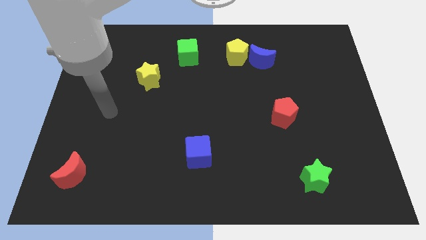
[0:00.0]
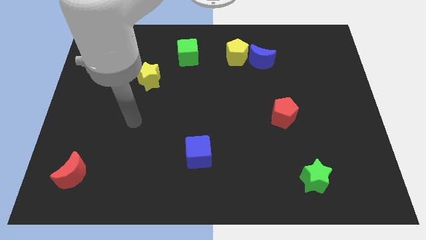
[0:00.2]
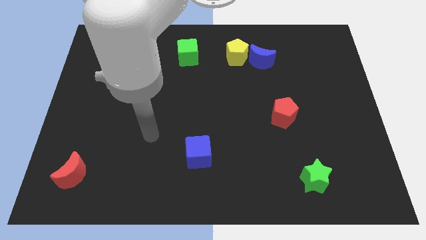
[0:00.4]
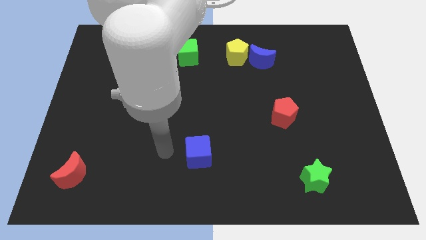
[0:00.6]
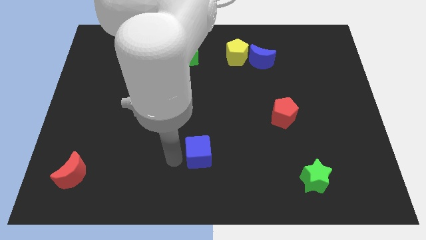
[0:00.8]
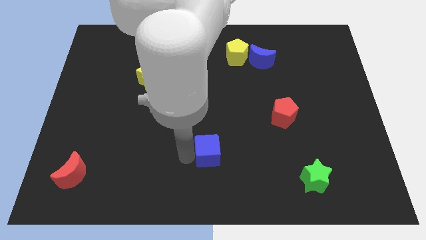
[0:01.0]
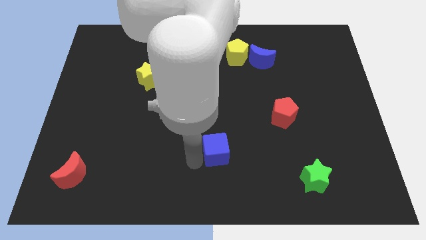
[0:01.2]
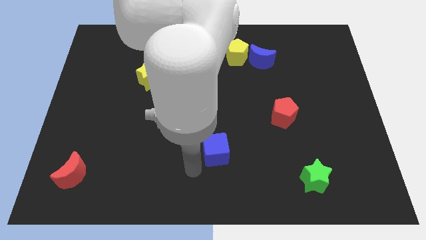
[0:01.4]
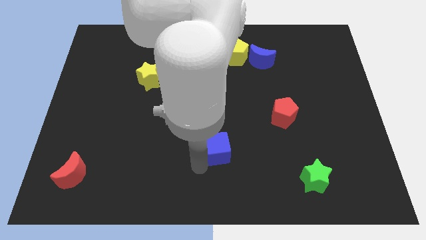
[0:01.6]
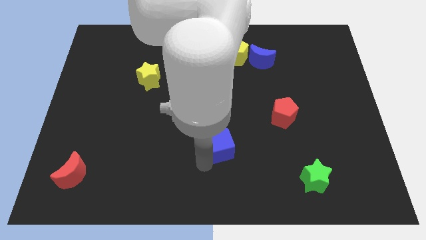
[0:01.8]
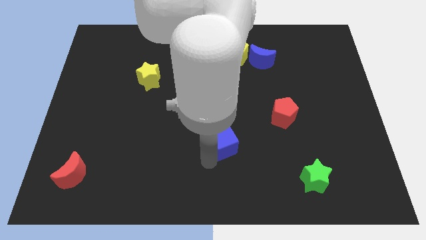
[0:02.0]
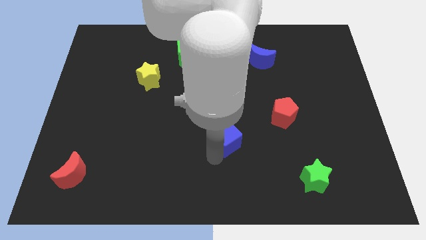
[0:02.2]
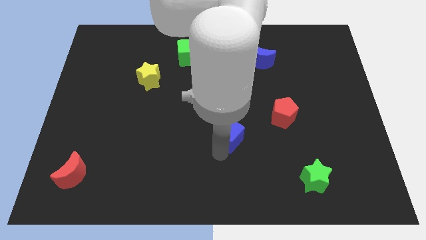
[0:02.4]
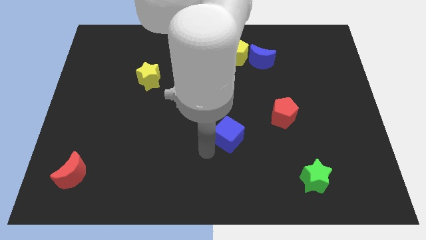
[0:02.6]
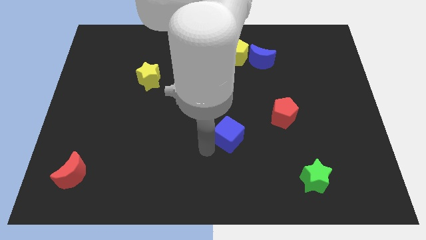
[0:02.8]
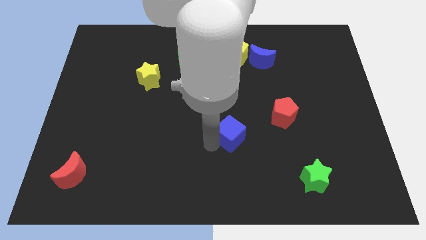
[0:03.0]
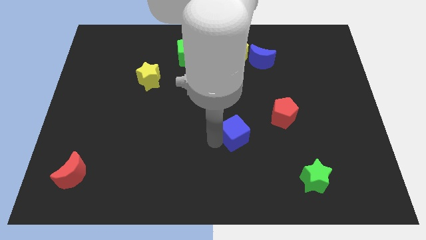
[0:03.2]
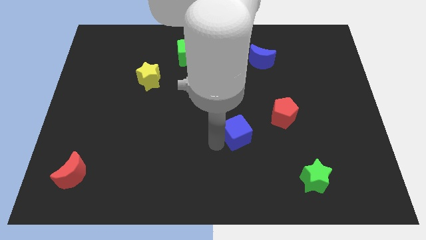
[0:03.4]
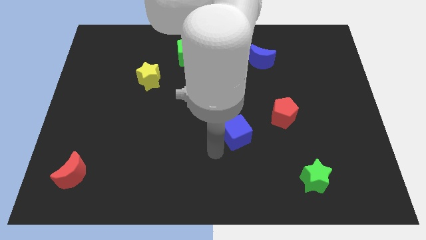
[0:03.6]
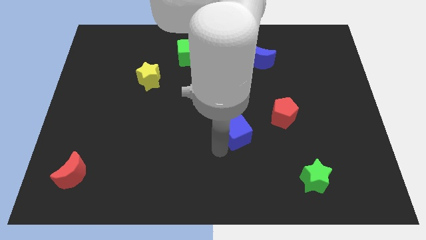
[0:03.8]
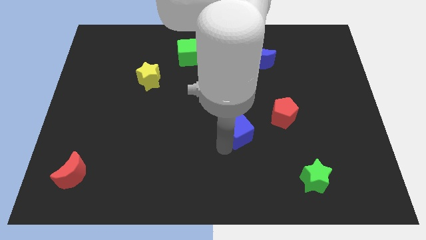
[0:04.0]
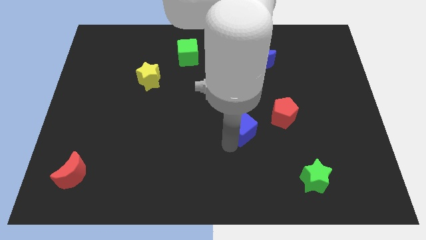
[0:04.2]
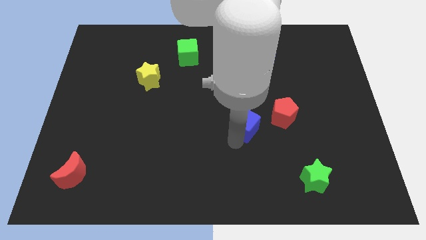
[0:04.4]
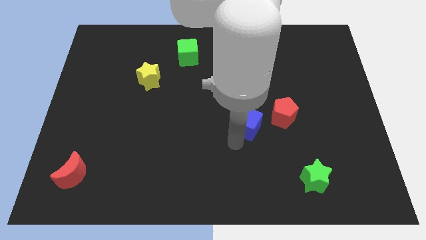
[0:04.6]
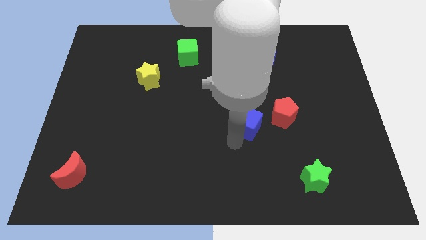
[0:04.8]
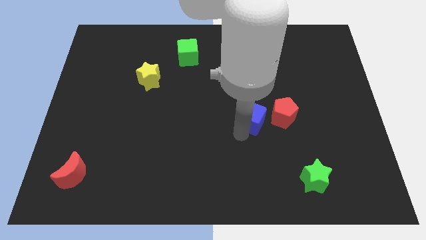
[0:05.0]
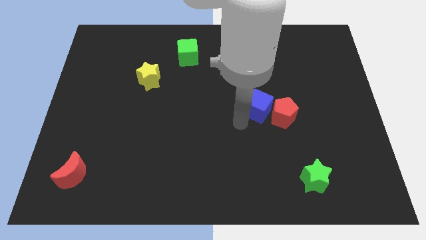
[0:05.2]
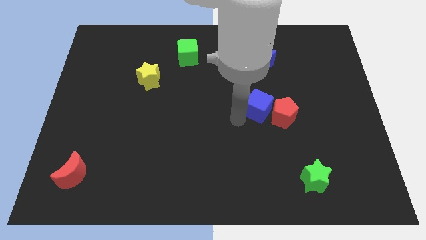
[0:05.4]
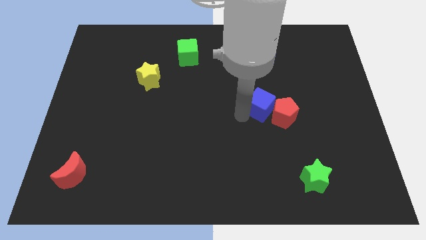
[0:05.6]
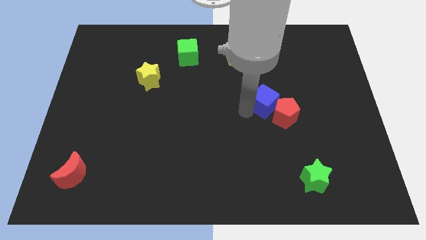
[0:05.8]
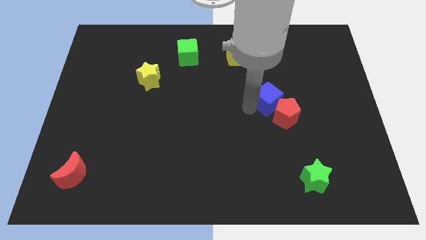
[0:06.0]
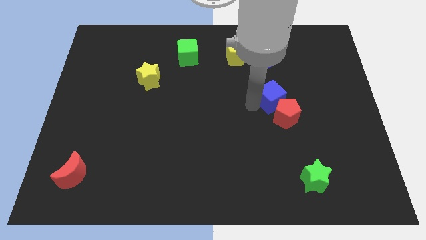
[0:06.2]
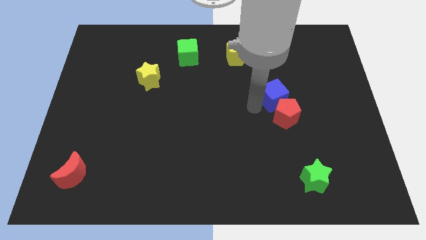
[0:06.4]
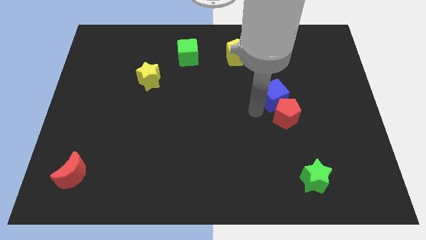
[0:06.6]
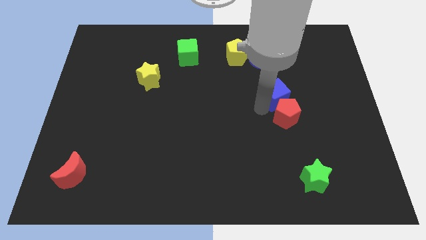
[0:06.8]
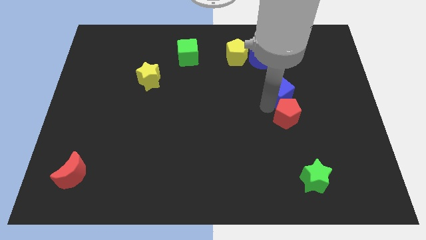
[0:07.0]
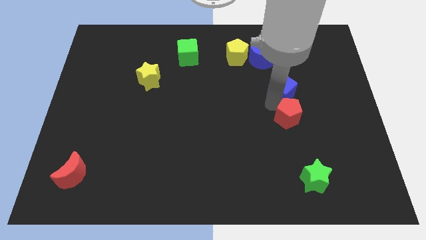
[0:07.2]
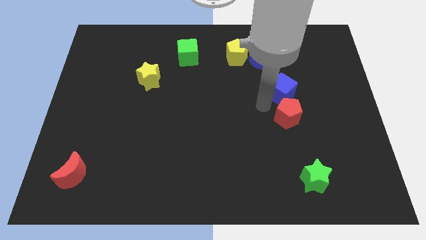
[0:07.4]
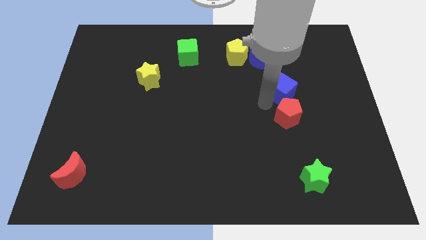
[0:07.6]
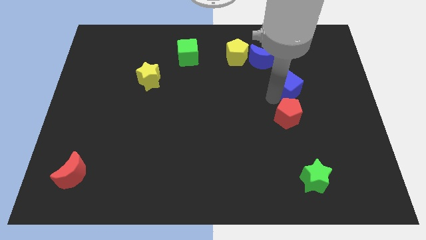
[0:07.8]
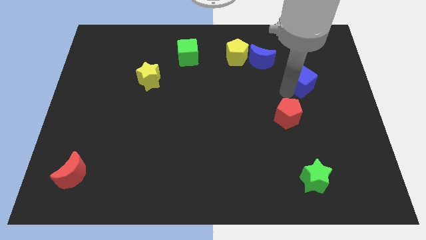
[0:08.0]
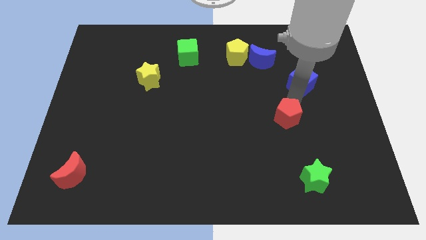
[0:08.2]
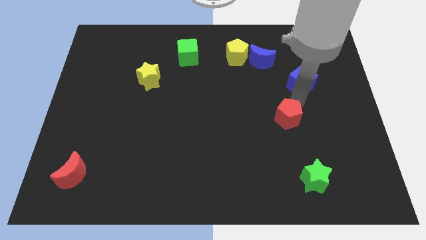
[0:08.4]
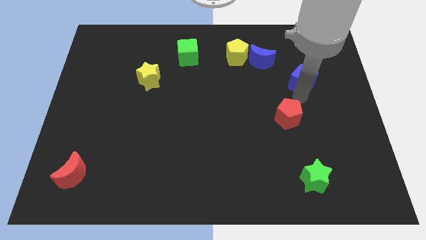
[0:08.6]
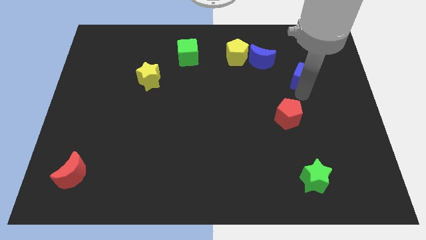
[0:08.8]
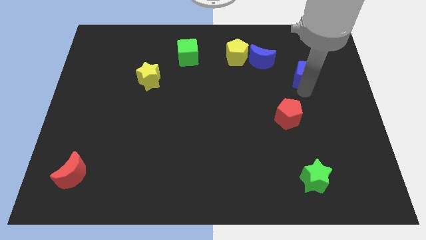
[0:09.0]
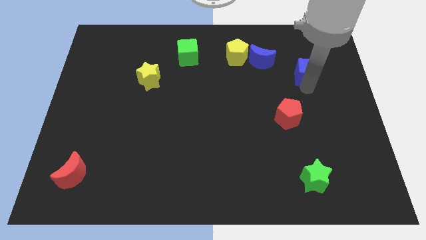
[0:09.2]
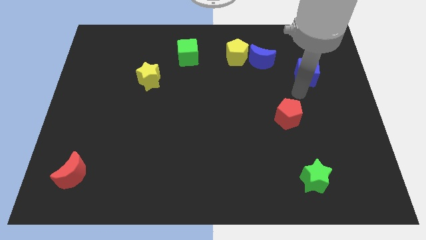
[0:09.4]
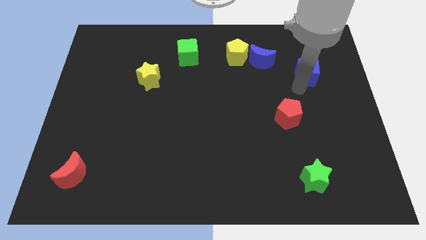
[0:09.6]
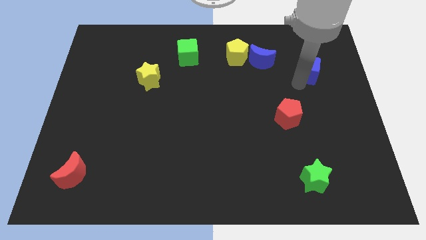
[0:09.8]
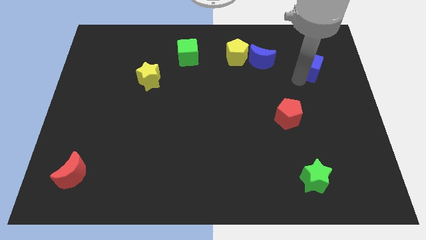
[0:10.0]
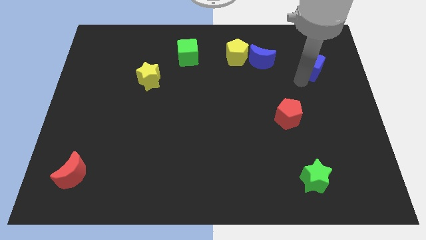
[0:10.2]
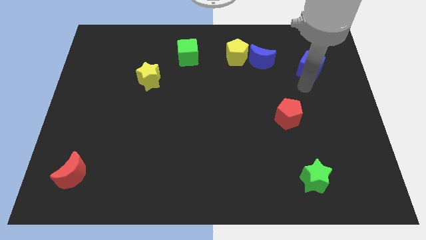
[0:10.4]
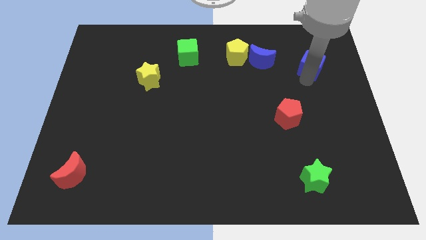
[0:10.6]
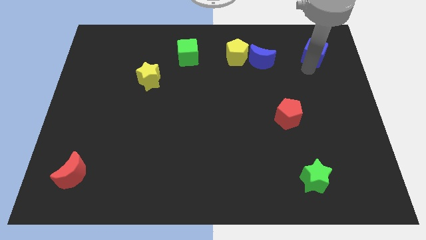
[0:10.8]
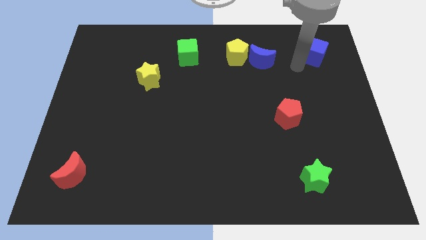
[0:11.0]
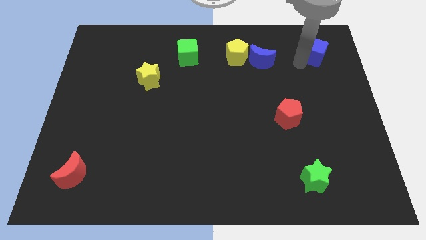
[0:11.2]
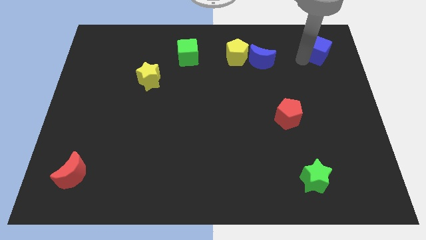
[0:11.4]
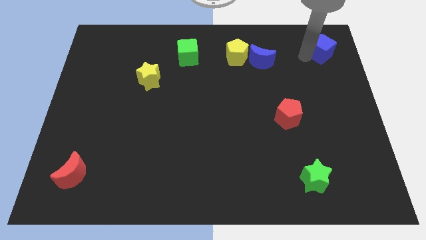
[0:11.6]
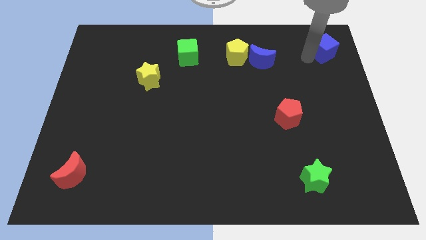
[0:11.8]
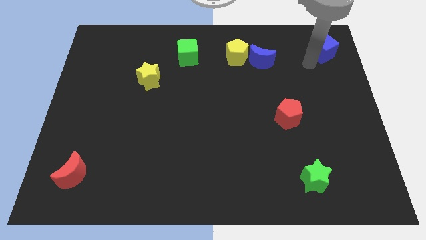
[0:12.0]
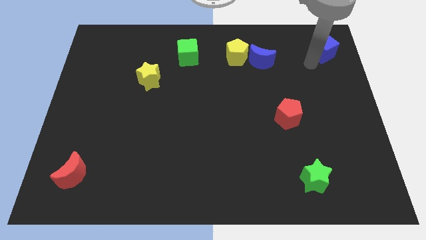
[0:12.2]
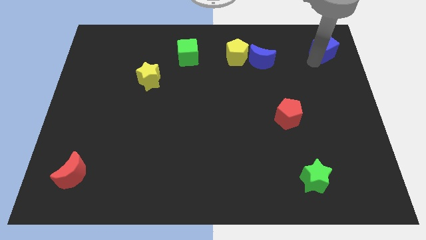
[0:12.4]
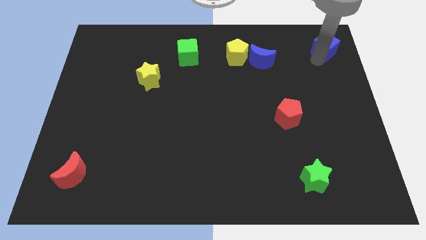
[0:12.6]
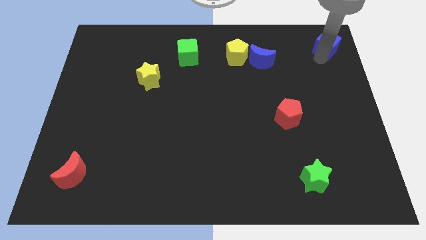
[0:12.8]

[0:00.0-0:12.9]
put the blue cube to the upper right corner
